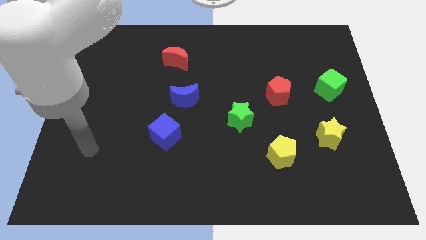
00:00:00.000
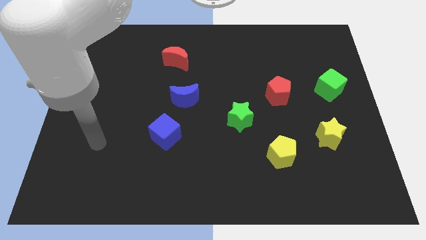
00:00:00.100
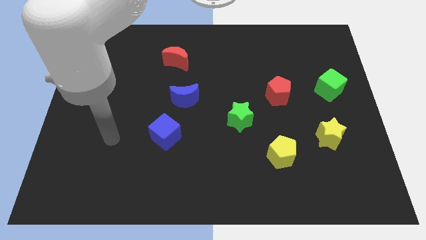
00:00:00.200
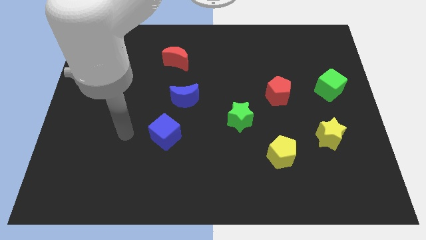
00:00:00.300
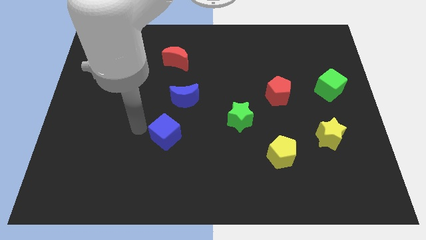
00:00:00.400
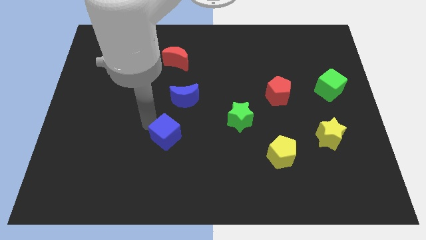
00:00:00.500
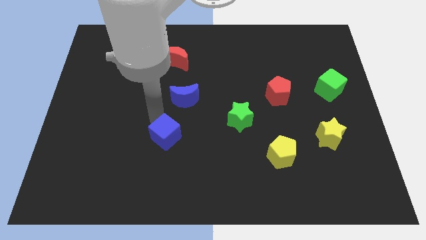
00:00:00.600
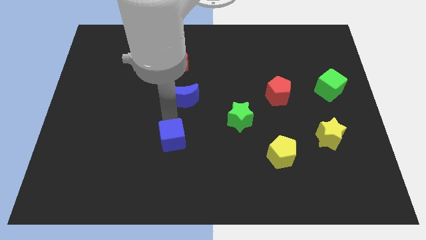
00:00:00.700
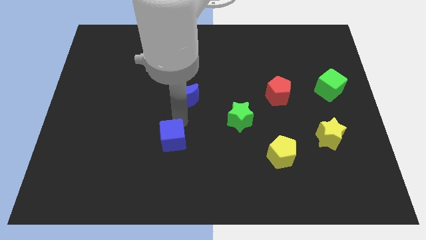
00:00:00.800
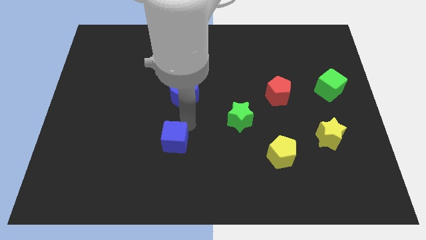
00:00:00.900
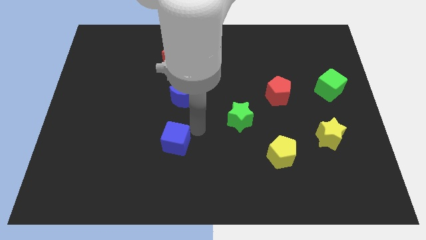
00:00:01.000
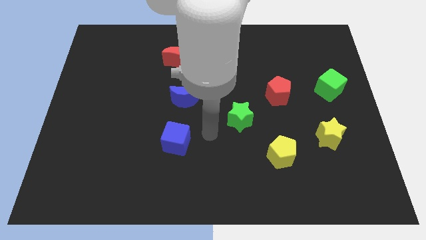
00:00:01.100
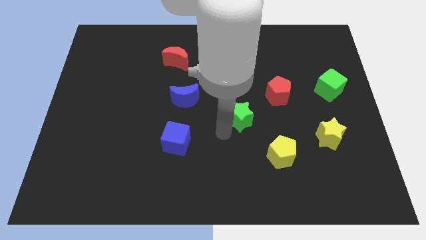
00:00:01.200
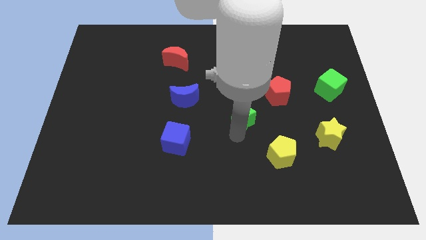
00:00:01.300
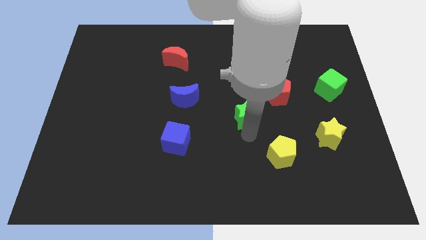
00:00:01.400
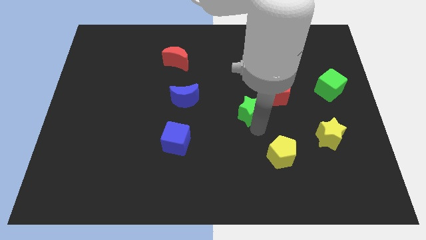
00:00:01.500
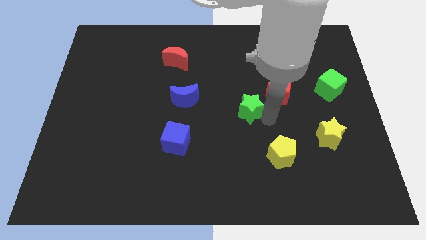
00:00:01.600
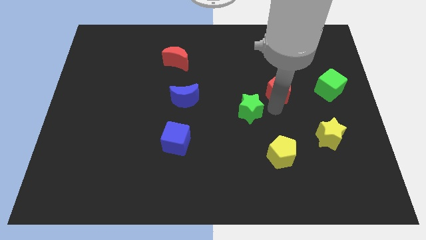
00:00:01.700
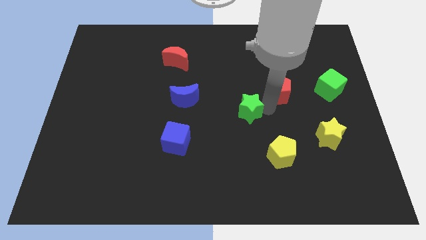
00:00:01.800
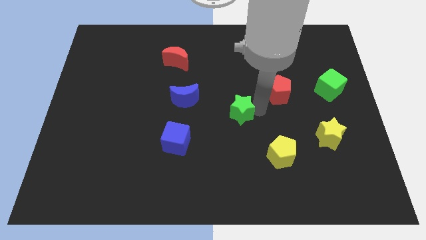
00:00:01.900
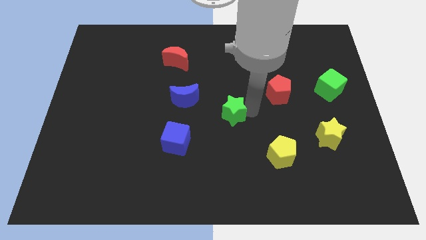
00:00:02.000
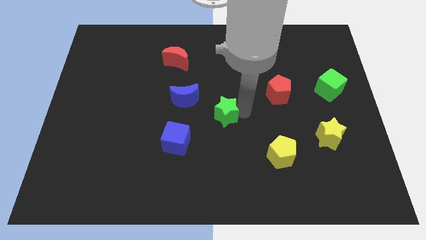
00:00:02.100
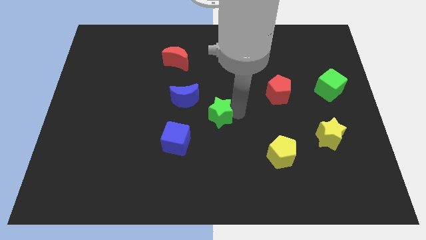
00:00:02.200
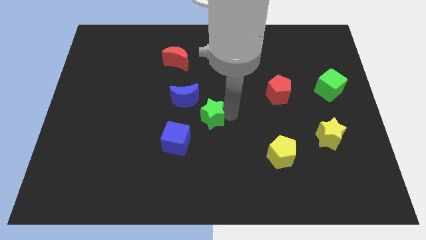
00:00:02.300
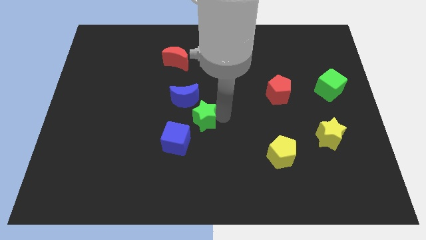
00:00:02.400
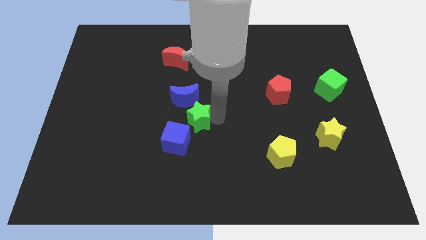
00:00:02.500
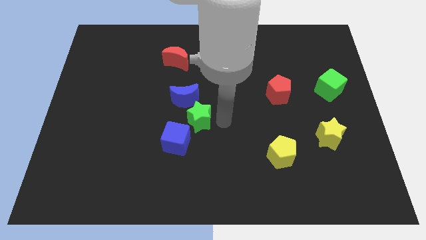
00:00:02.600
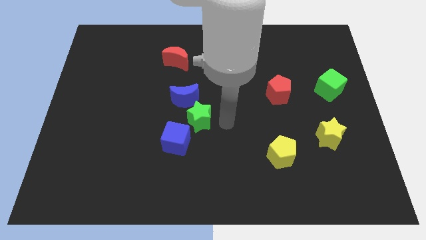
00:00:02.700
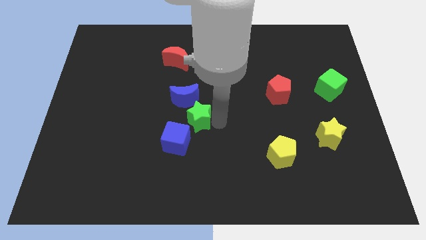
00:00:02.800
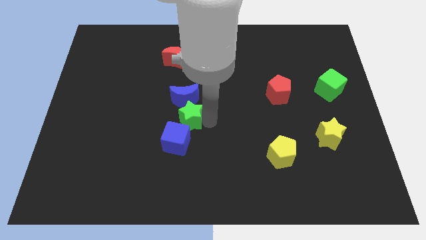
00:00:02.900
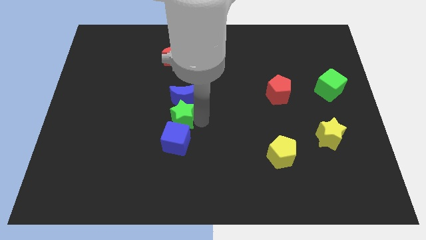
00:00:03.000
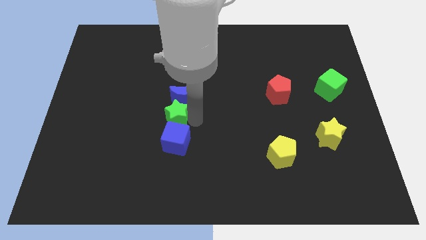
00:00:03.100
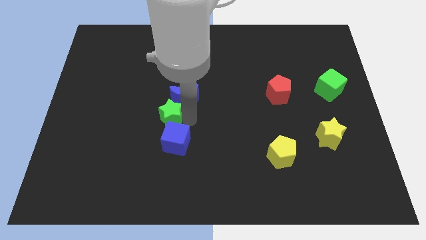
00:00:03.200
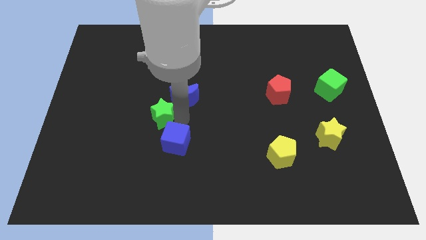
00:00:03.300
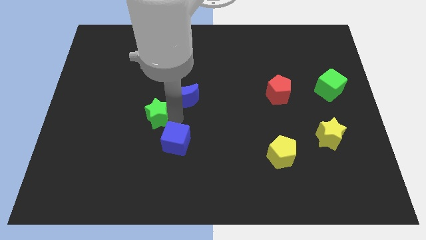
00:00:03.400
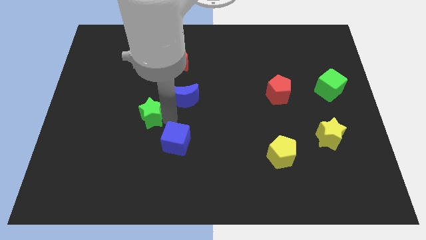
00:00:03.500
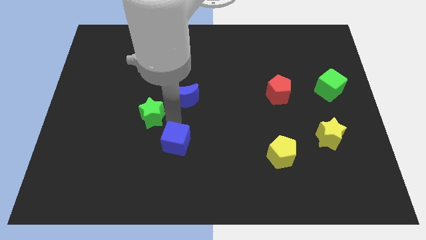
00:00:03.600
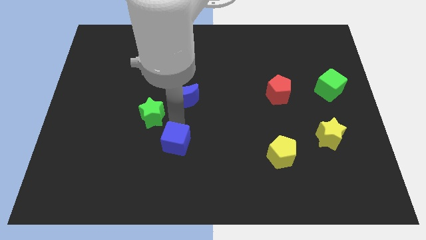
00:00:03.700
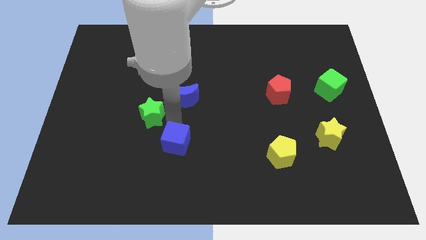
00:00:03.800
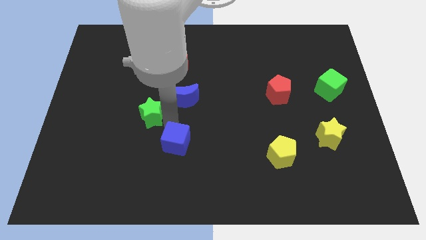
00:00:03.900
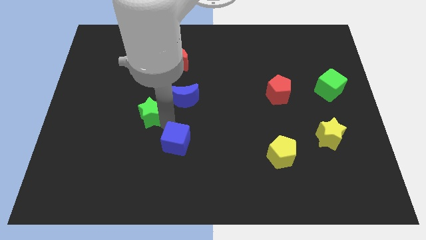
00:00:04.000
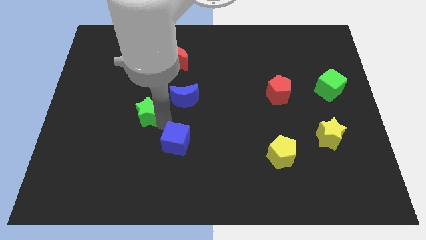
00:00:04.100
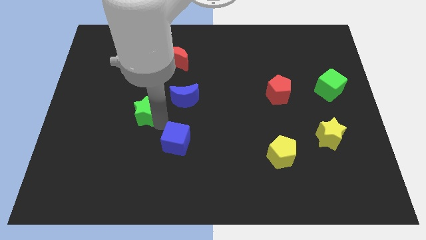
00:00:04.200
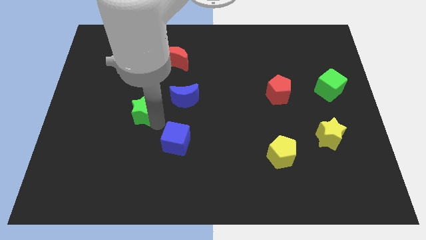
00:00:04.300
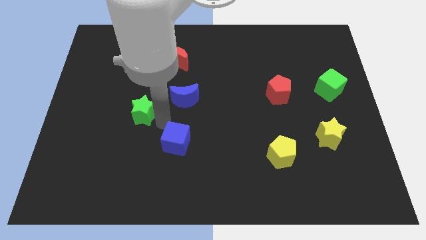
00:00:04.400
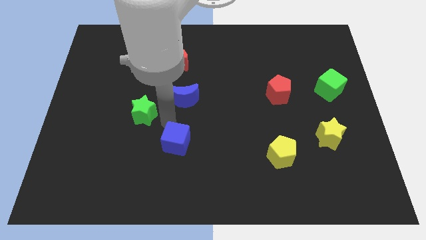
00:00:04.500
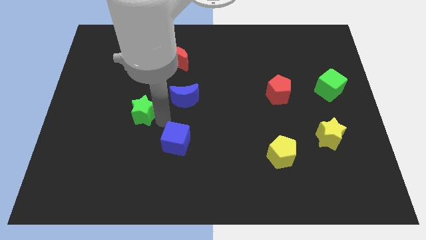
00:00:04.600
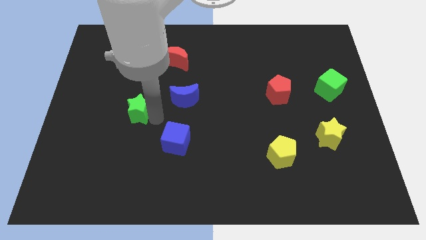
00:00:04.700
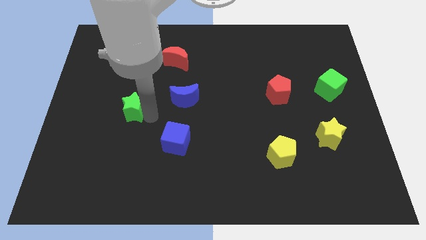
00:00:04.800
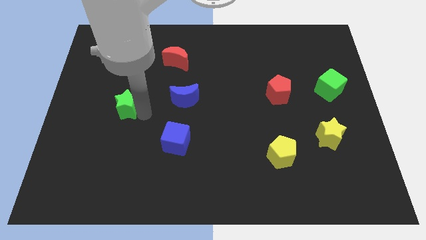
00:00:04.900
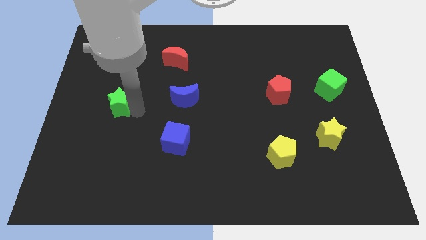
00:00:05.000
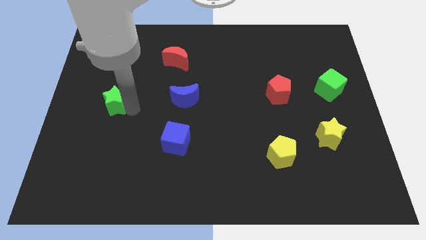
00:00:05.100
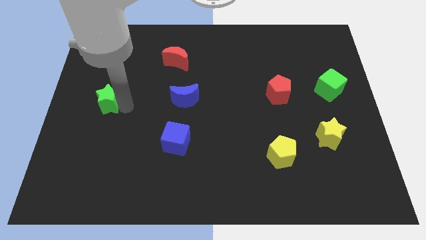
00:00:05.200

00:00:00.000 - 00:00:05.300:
move the green star to the left side

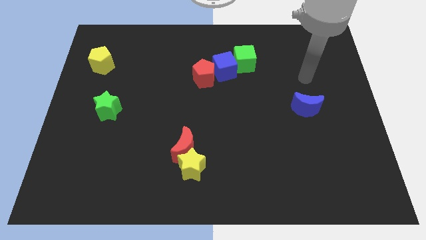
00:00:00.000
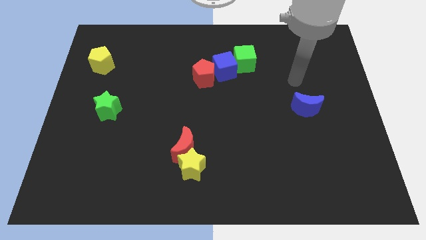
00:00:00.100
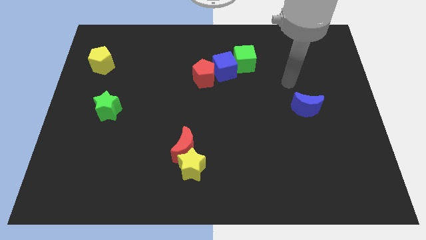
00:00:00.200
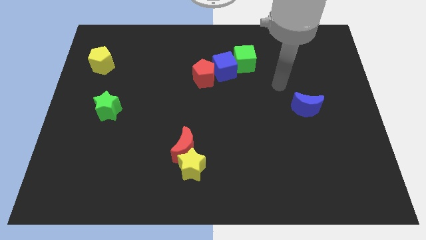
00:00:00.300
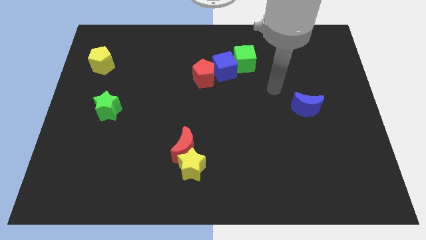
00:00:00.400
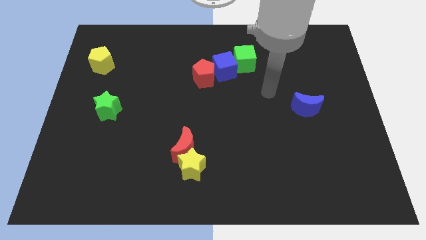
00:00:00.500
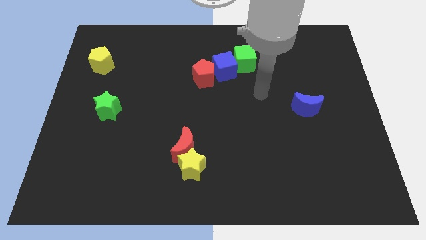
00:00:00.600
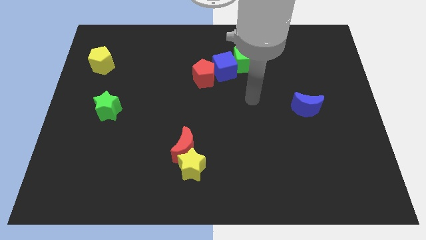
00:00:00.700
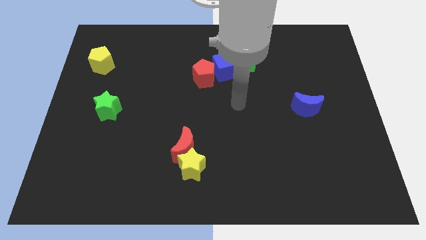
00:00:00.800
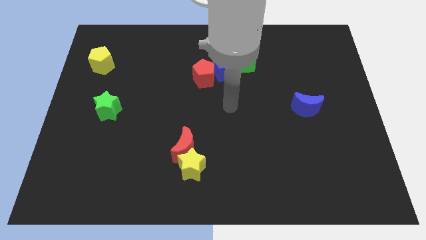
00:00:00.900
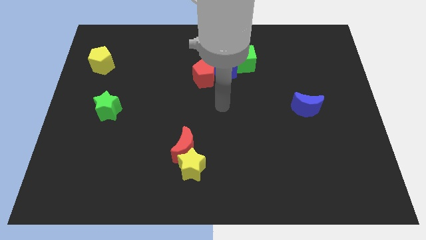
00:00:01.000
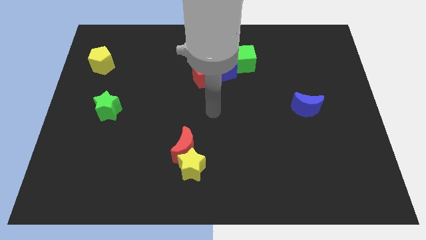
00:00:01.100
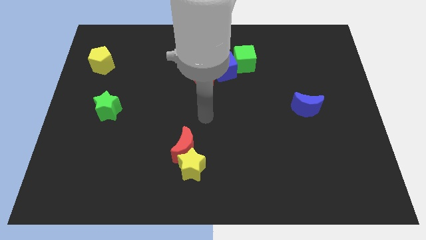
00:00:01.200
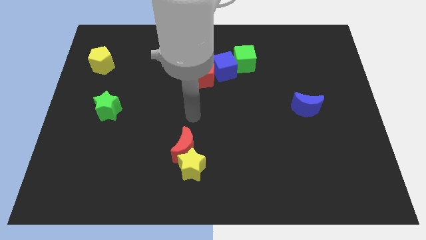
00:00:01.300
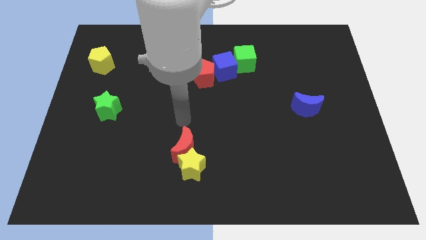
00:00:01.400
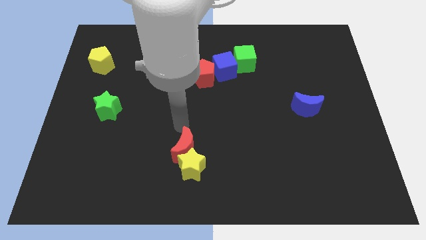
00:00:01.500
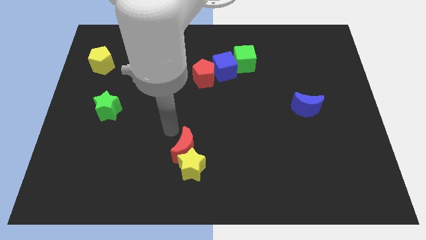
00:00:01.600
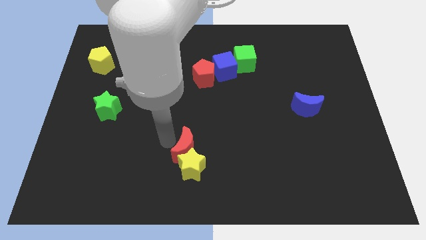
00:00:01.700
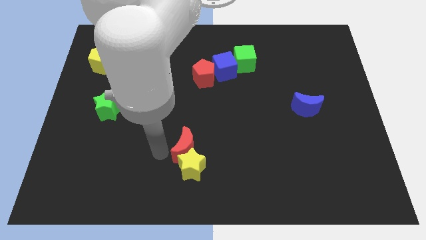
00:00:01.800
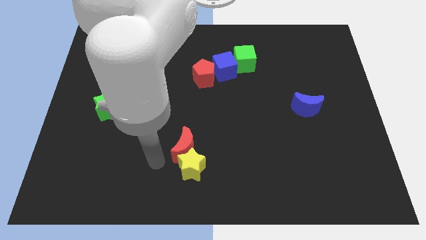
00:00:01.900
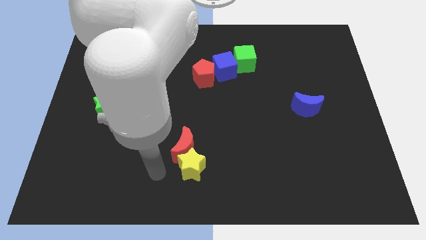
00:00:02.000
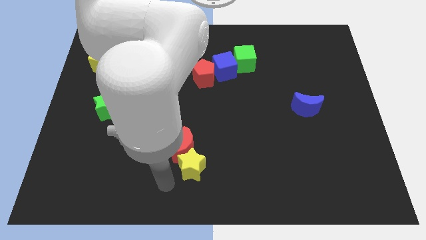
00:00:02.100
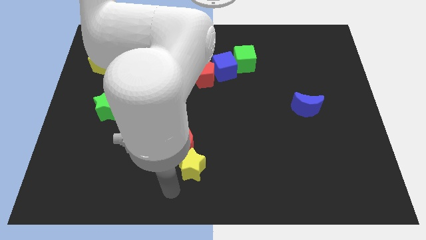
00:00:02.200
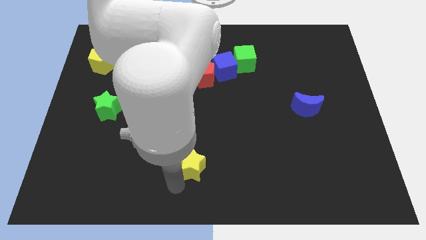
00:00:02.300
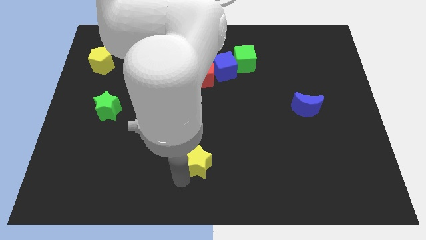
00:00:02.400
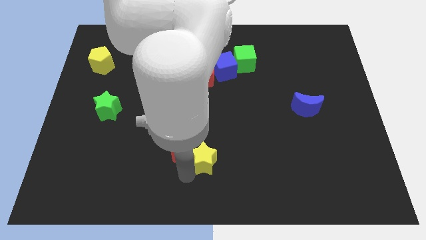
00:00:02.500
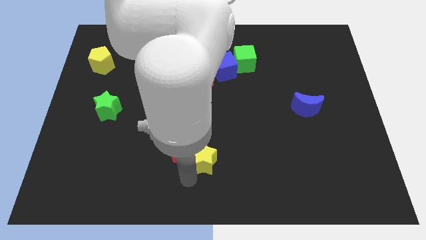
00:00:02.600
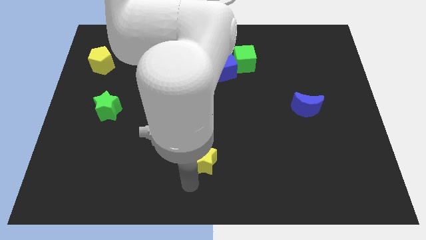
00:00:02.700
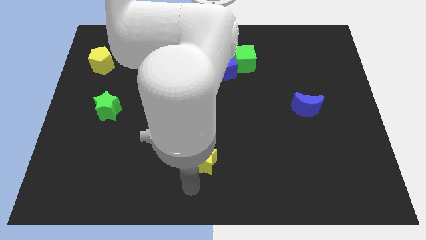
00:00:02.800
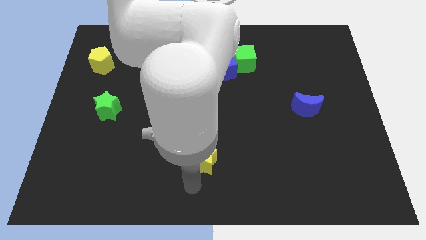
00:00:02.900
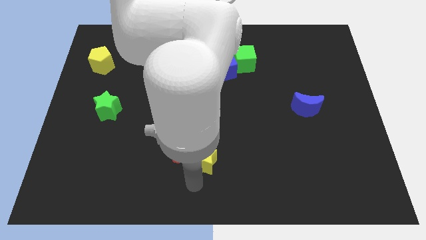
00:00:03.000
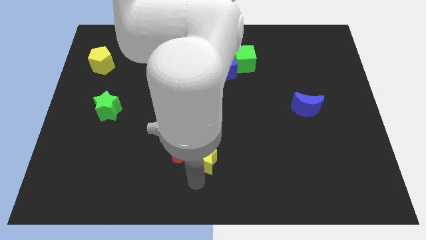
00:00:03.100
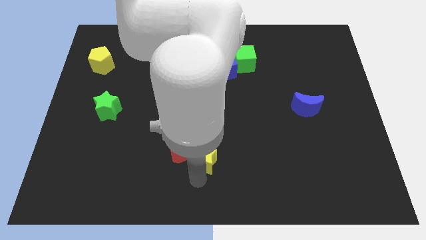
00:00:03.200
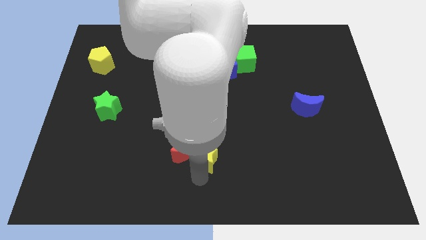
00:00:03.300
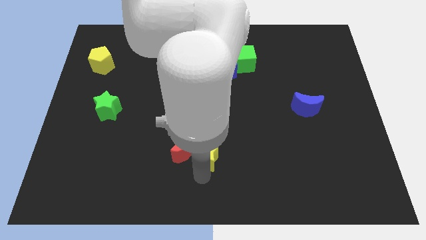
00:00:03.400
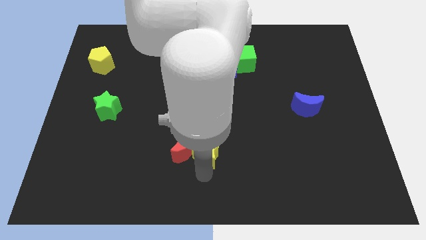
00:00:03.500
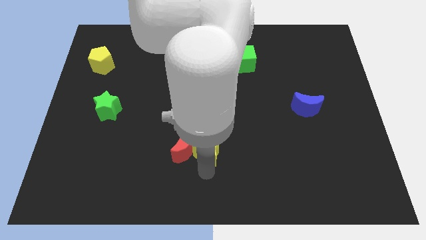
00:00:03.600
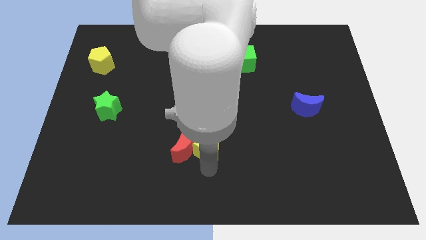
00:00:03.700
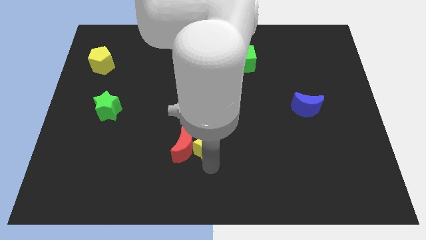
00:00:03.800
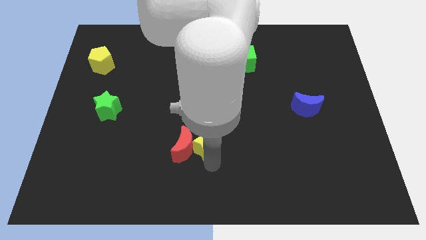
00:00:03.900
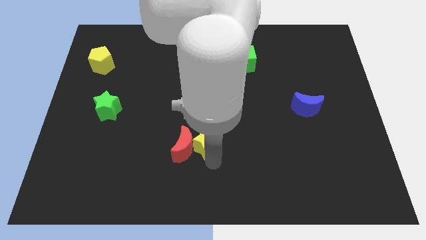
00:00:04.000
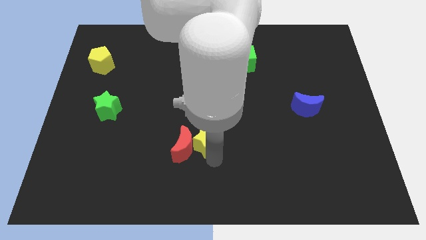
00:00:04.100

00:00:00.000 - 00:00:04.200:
move the yellow star to the center
